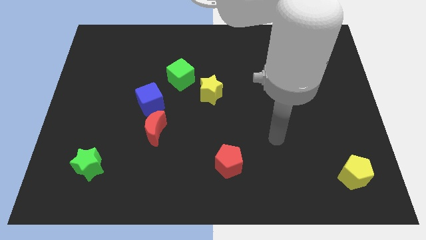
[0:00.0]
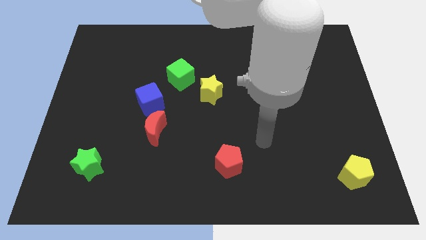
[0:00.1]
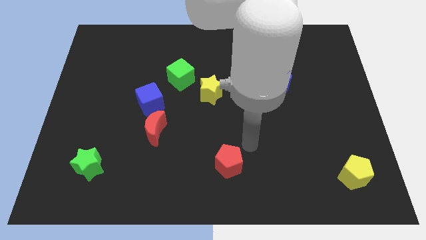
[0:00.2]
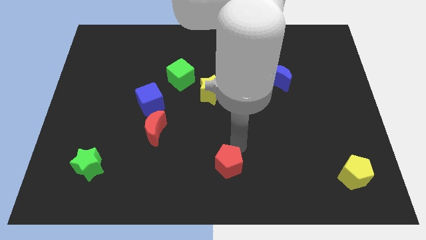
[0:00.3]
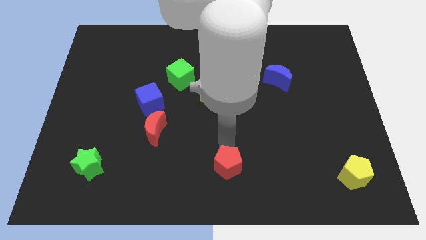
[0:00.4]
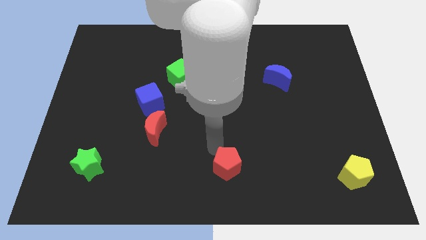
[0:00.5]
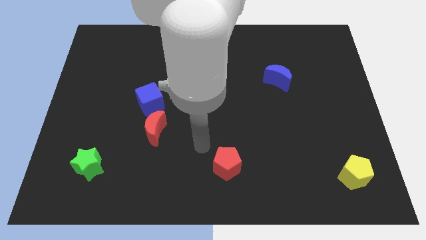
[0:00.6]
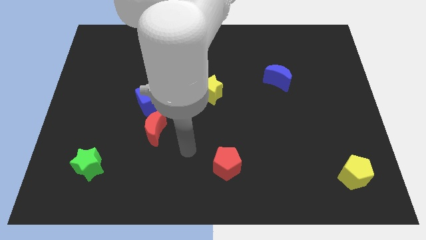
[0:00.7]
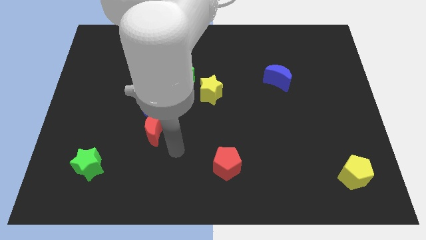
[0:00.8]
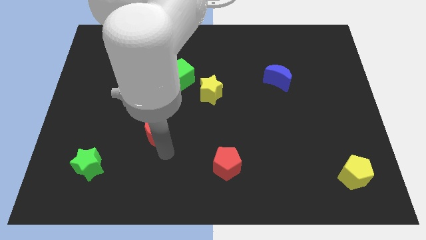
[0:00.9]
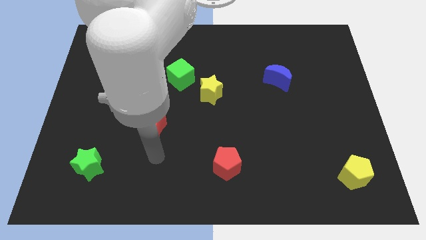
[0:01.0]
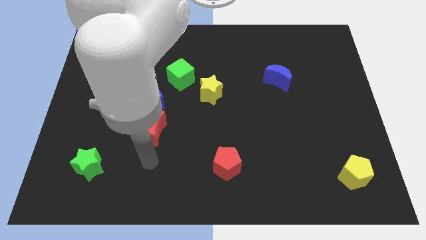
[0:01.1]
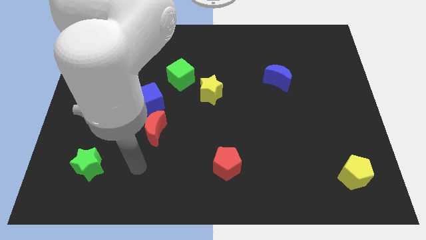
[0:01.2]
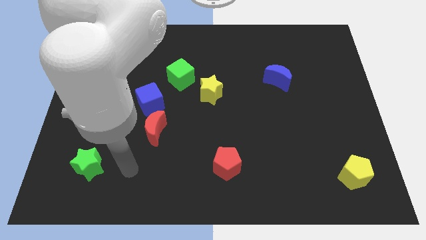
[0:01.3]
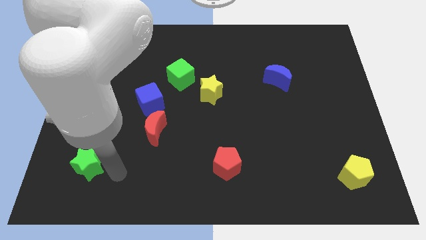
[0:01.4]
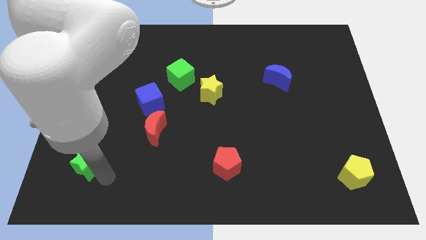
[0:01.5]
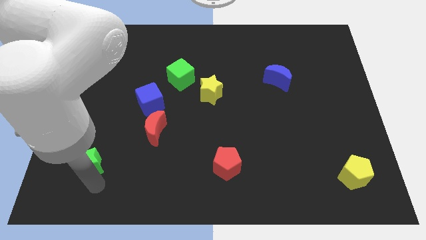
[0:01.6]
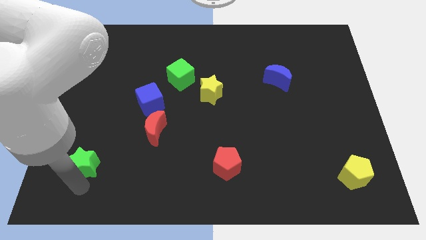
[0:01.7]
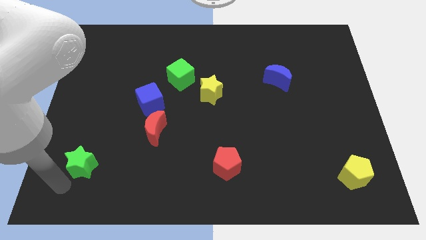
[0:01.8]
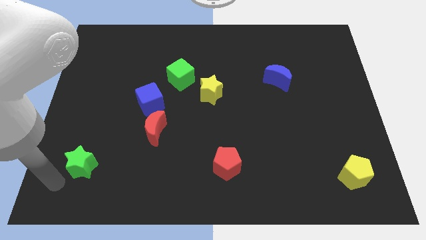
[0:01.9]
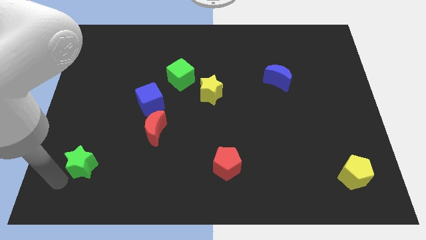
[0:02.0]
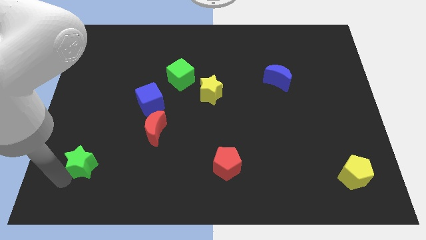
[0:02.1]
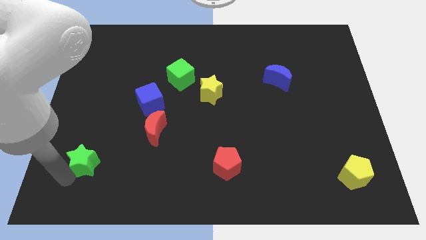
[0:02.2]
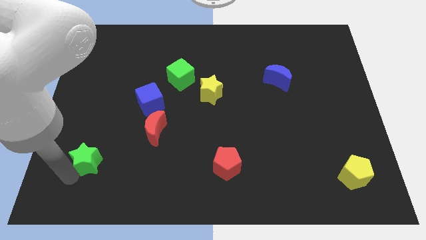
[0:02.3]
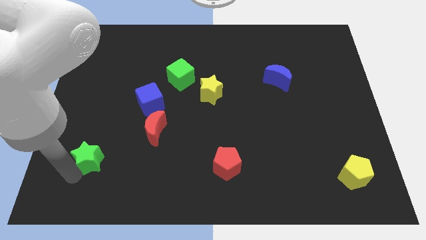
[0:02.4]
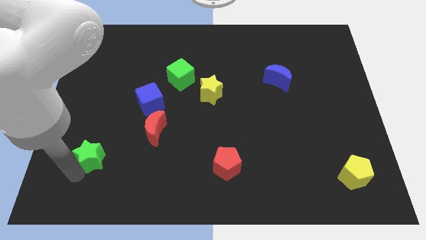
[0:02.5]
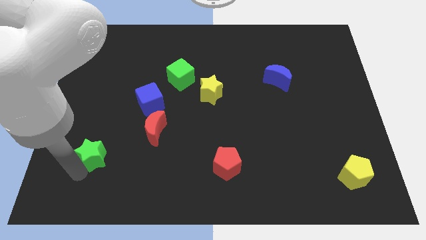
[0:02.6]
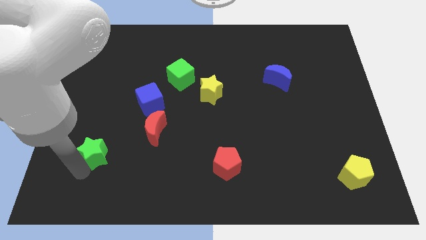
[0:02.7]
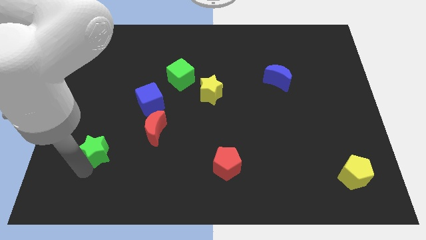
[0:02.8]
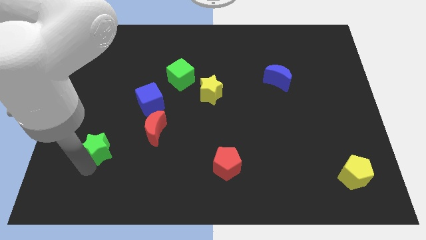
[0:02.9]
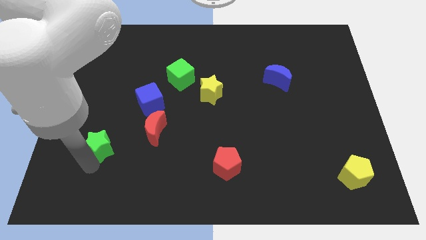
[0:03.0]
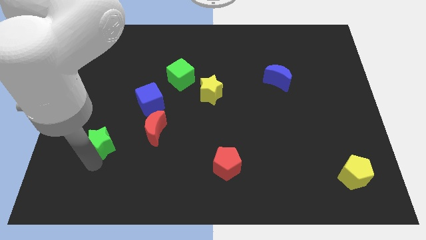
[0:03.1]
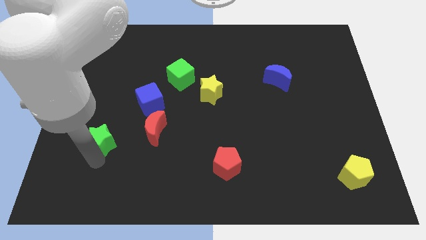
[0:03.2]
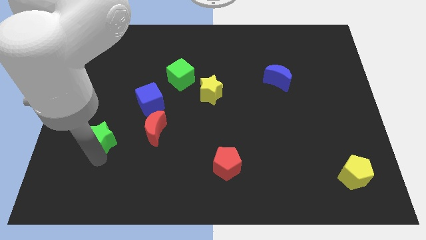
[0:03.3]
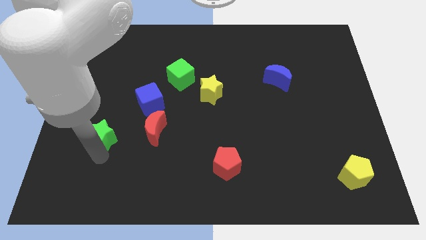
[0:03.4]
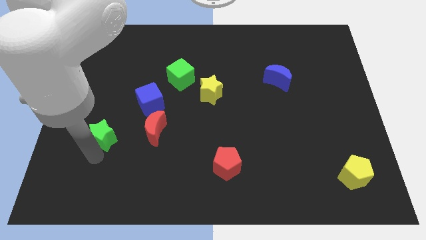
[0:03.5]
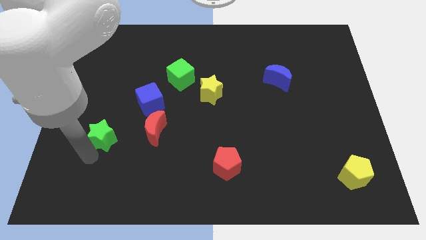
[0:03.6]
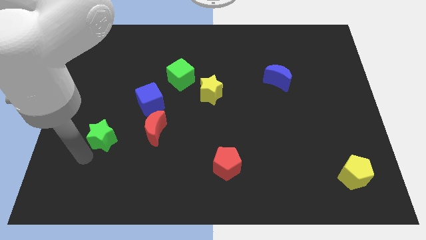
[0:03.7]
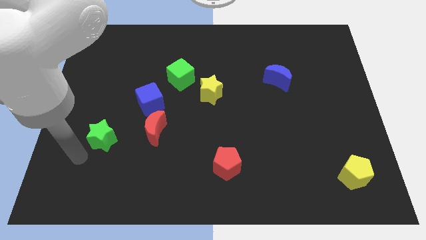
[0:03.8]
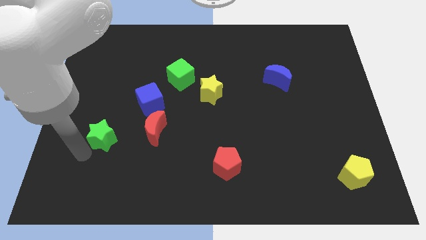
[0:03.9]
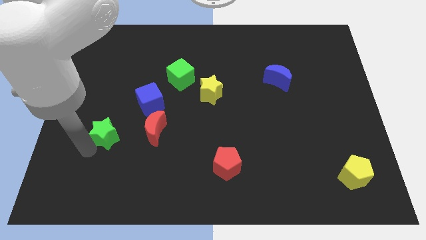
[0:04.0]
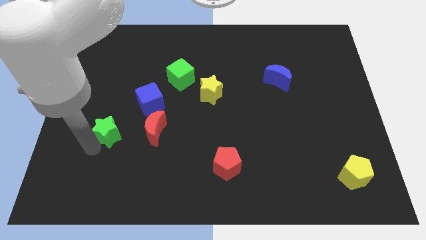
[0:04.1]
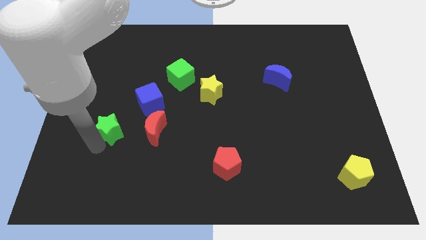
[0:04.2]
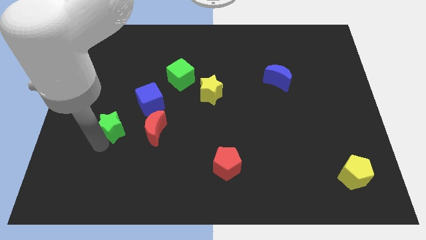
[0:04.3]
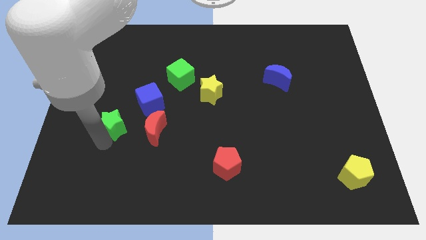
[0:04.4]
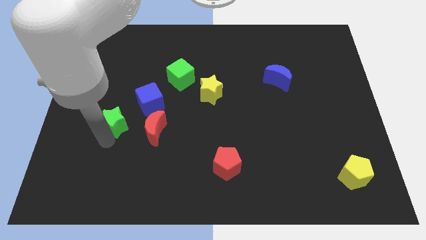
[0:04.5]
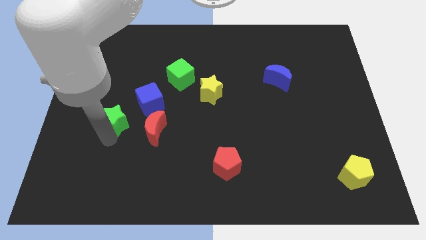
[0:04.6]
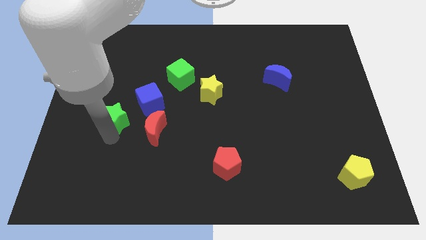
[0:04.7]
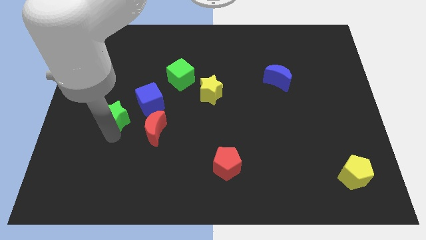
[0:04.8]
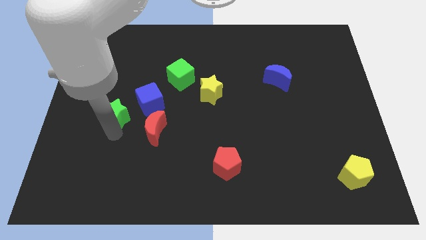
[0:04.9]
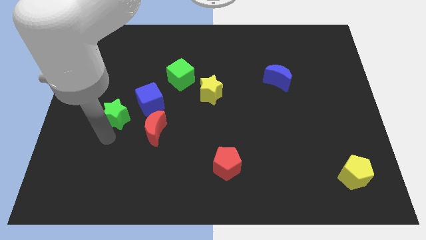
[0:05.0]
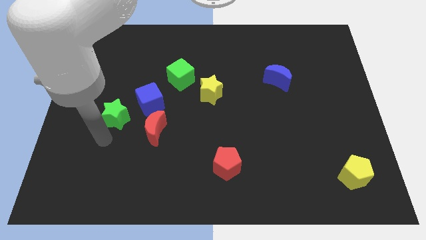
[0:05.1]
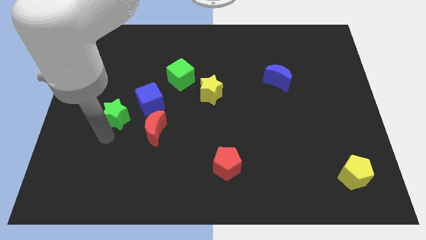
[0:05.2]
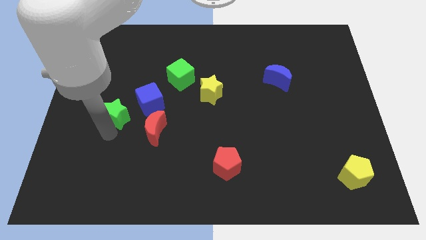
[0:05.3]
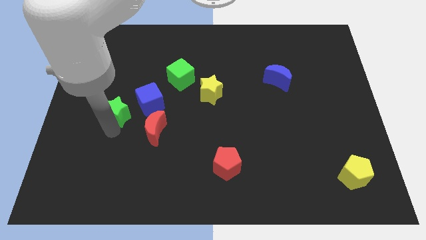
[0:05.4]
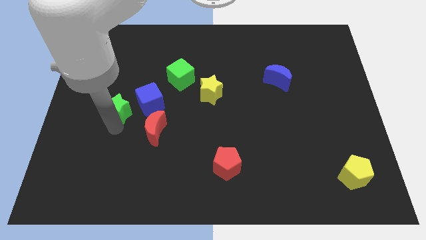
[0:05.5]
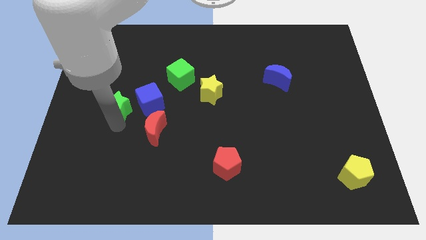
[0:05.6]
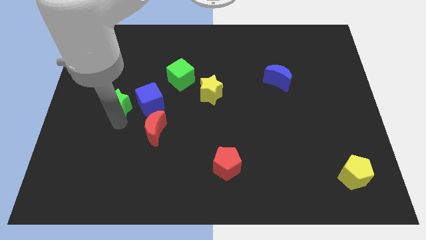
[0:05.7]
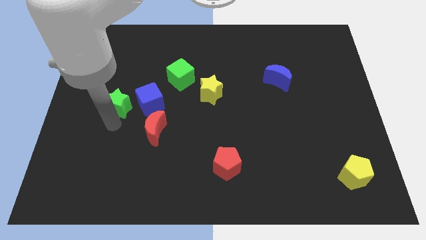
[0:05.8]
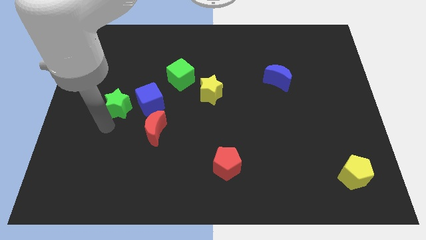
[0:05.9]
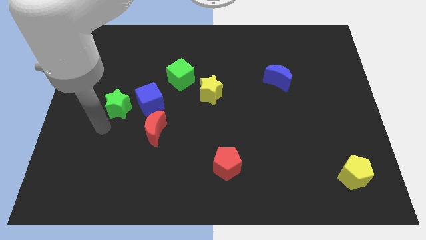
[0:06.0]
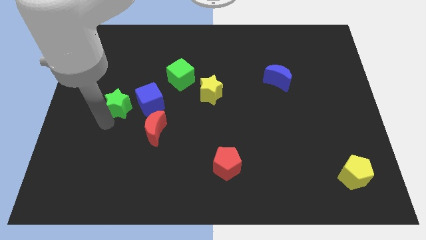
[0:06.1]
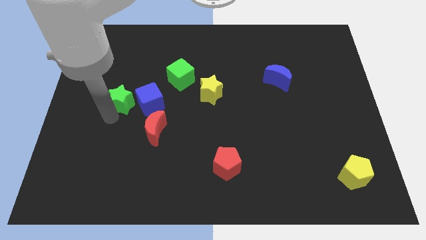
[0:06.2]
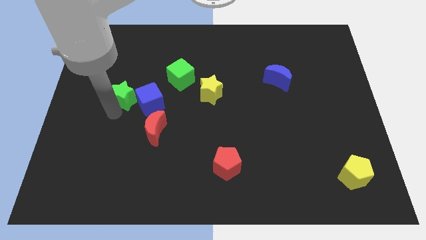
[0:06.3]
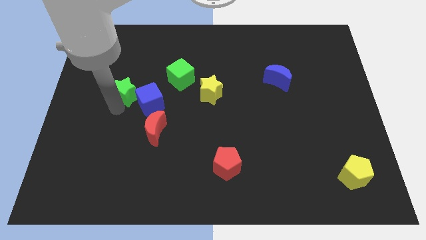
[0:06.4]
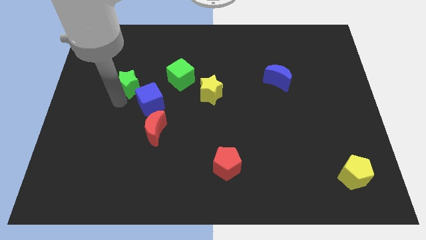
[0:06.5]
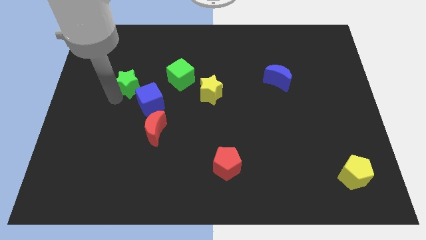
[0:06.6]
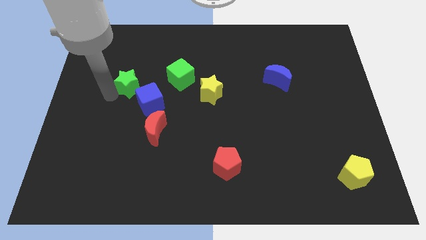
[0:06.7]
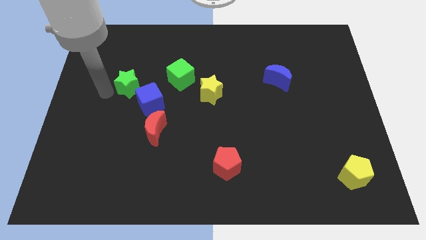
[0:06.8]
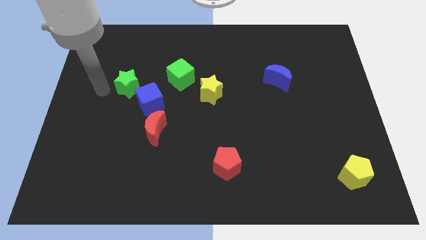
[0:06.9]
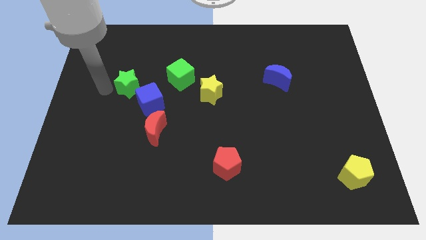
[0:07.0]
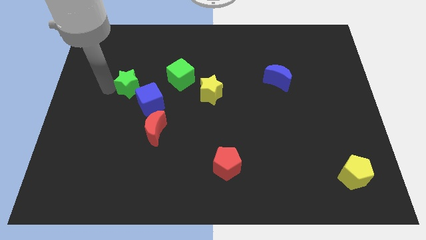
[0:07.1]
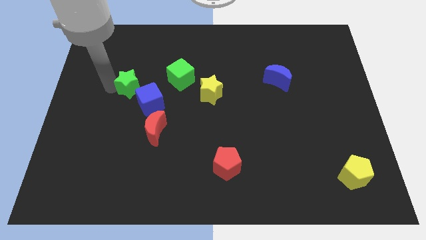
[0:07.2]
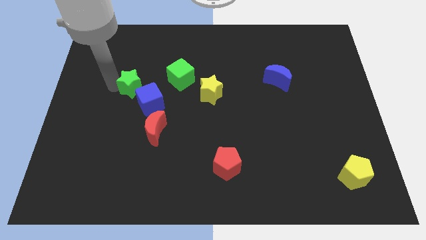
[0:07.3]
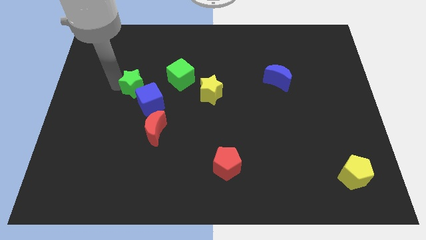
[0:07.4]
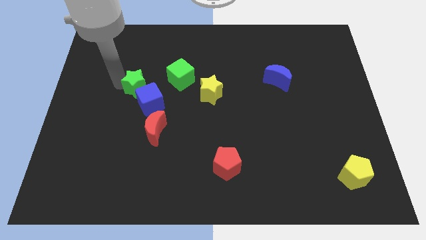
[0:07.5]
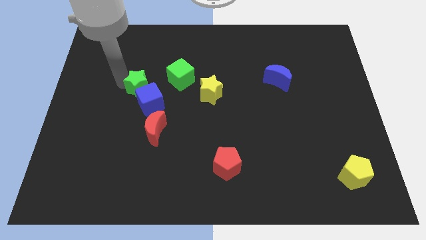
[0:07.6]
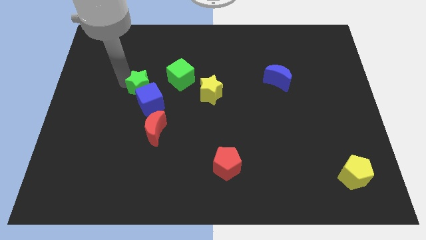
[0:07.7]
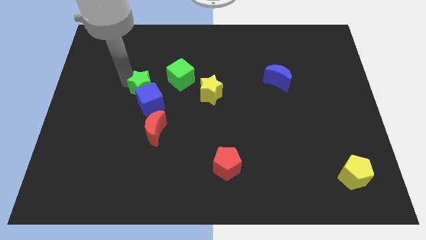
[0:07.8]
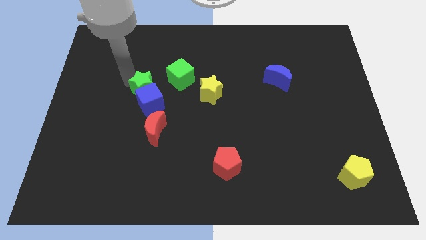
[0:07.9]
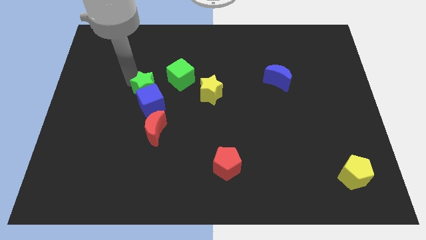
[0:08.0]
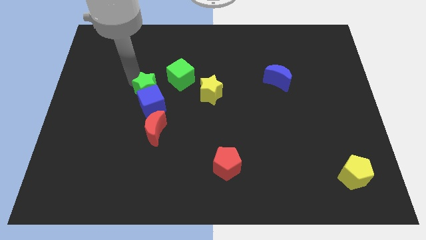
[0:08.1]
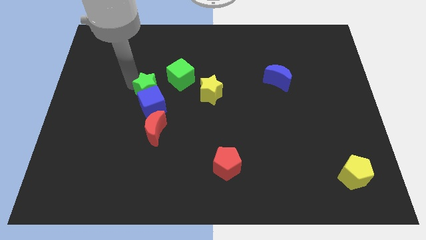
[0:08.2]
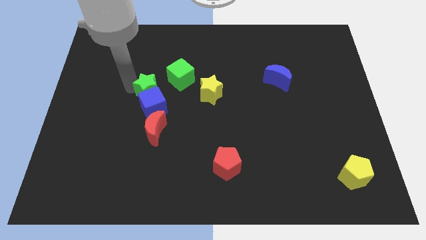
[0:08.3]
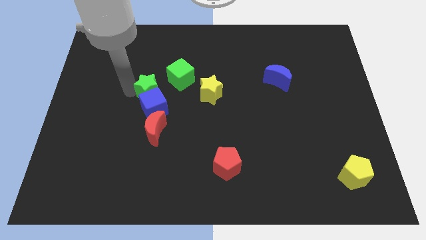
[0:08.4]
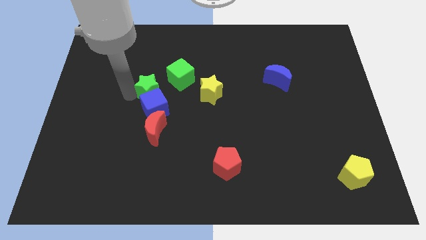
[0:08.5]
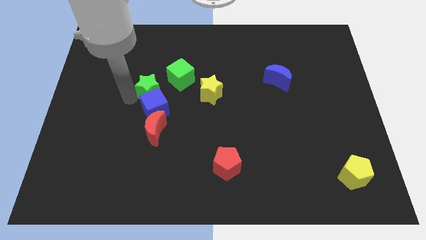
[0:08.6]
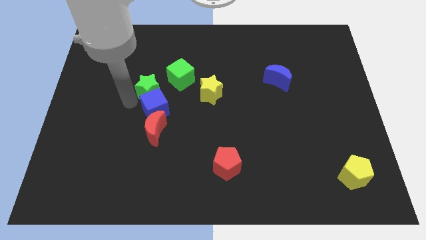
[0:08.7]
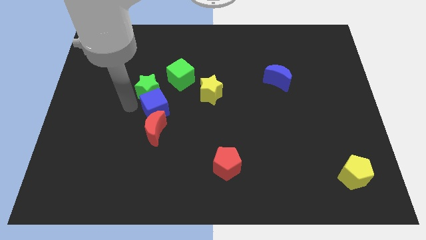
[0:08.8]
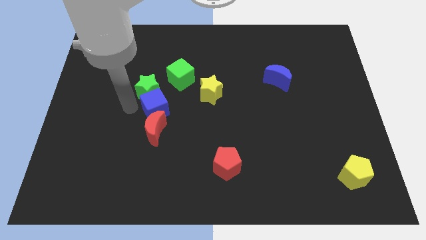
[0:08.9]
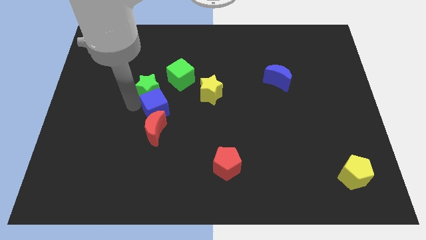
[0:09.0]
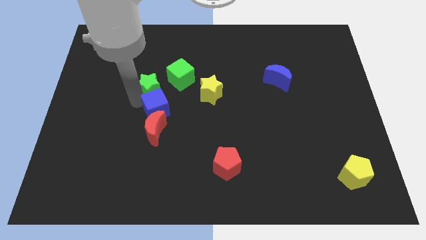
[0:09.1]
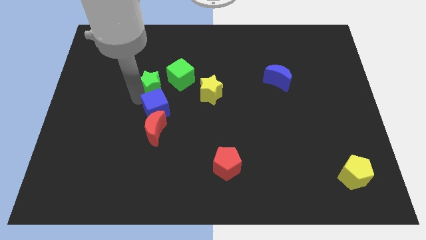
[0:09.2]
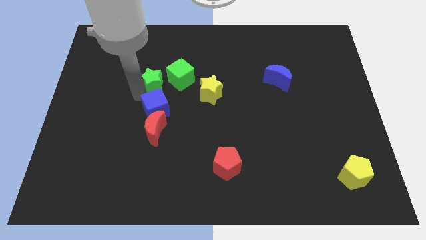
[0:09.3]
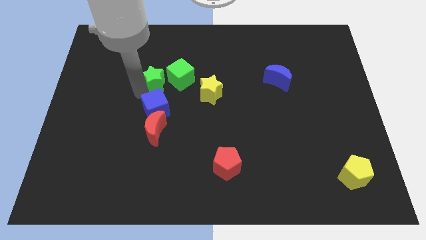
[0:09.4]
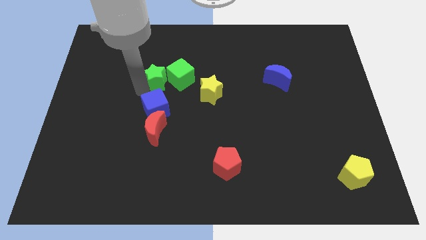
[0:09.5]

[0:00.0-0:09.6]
move the green star next to the green cube
